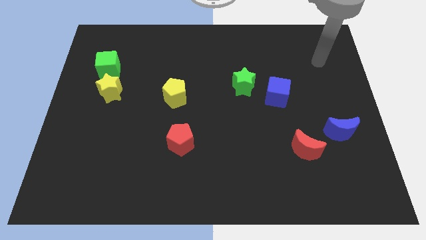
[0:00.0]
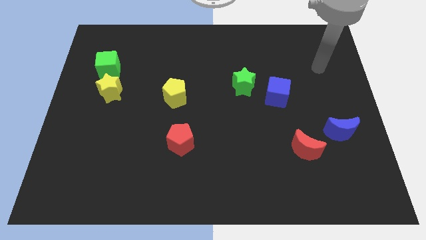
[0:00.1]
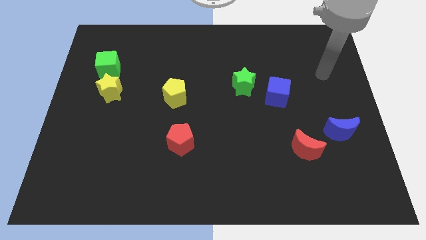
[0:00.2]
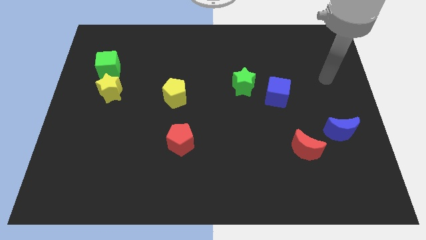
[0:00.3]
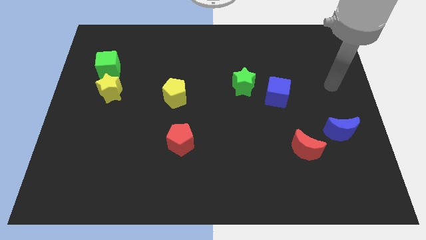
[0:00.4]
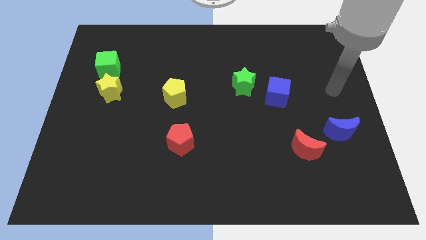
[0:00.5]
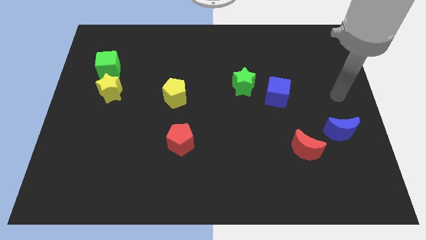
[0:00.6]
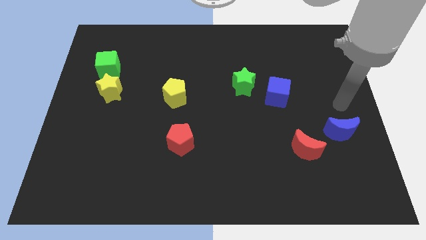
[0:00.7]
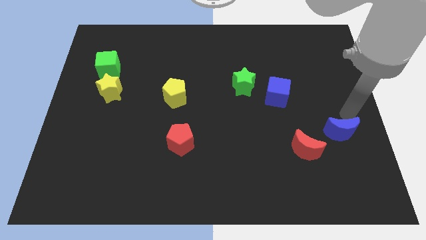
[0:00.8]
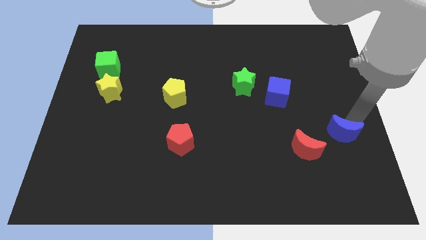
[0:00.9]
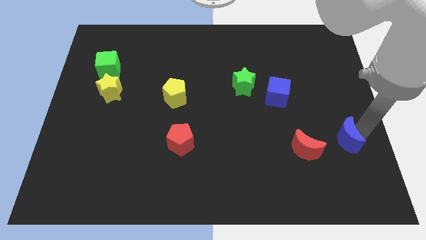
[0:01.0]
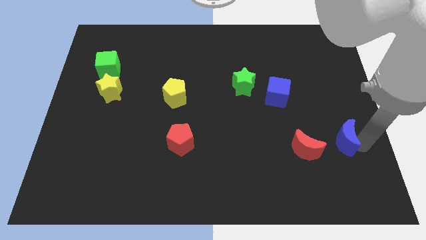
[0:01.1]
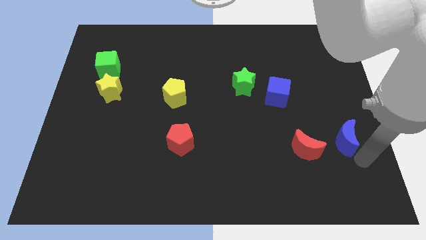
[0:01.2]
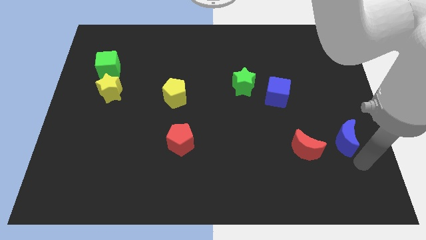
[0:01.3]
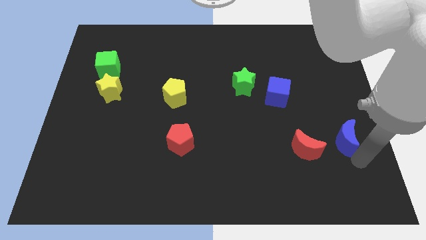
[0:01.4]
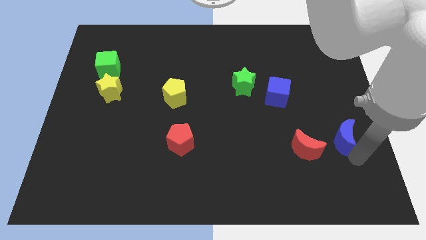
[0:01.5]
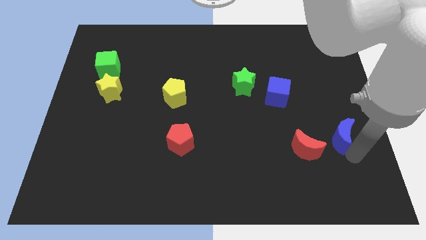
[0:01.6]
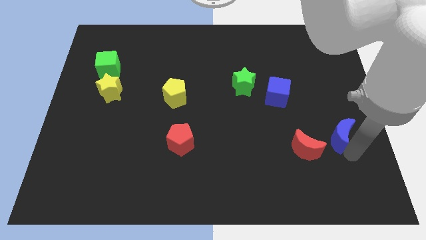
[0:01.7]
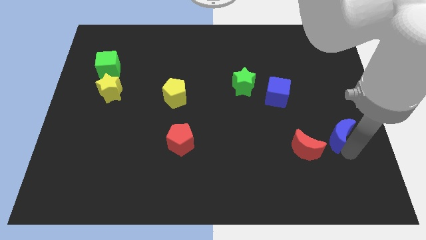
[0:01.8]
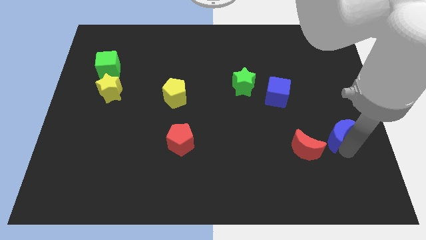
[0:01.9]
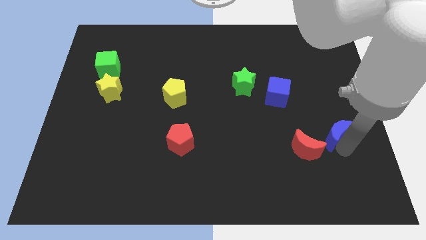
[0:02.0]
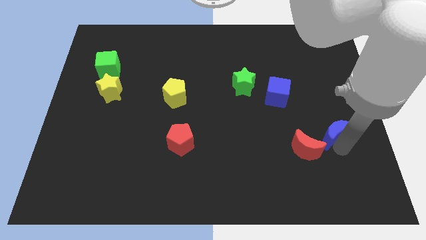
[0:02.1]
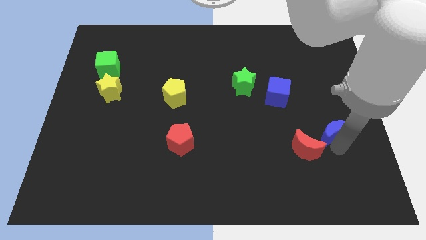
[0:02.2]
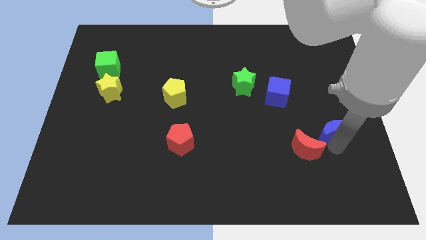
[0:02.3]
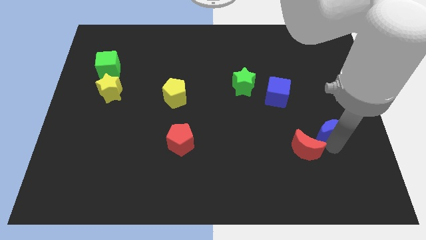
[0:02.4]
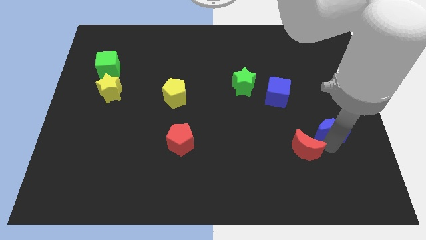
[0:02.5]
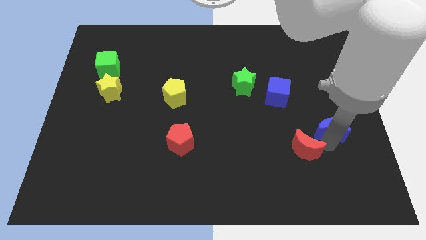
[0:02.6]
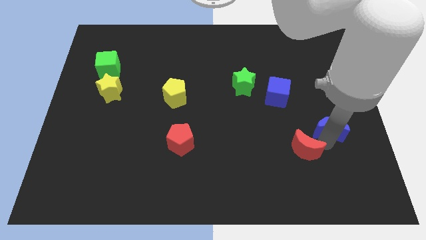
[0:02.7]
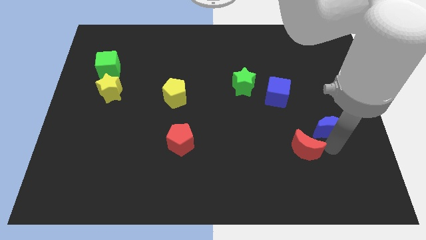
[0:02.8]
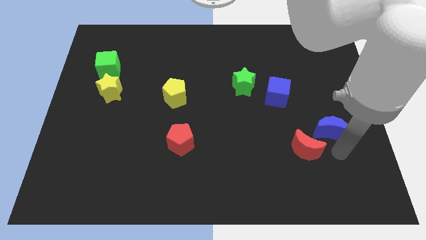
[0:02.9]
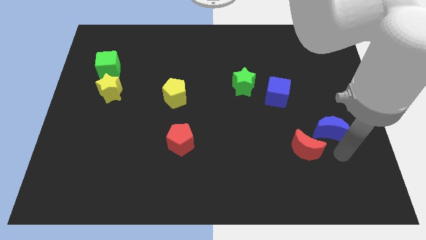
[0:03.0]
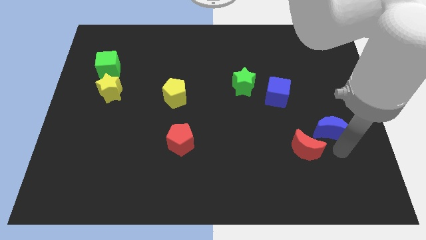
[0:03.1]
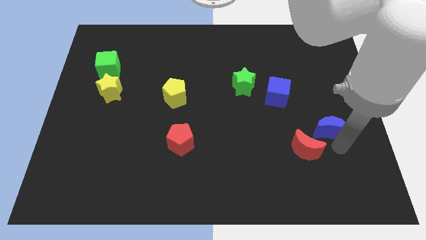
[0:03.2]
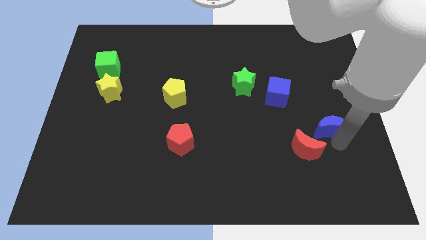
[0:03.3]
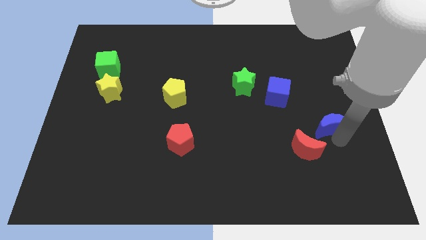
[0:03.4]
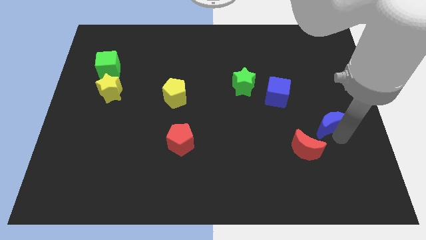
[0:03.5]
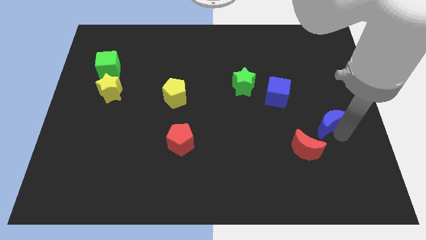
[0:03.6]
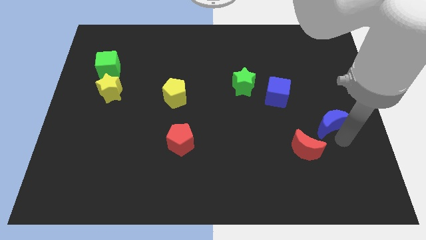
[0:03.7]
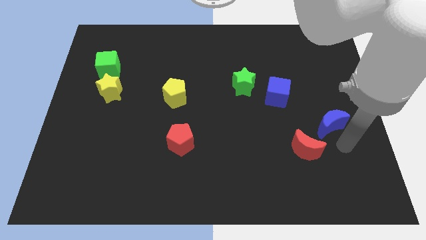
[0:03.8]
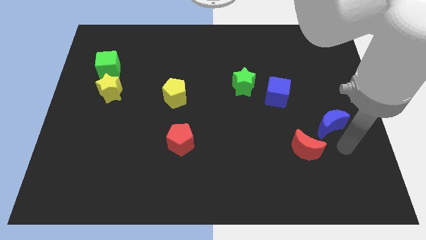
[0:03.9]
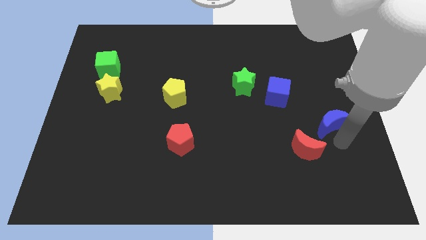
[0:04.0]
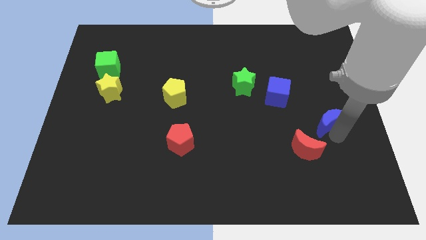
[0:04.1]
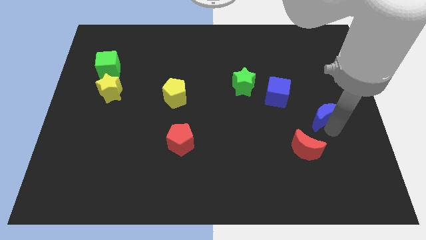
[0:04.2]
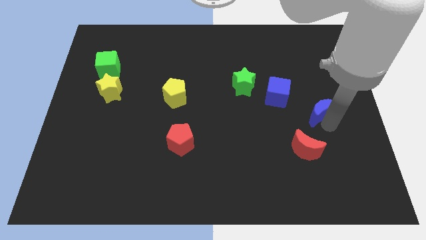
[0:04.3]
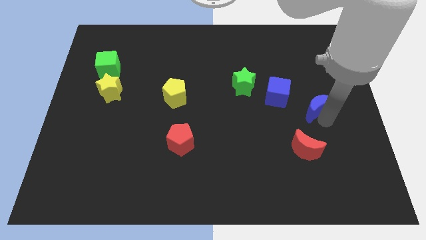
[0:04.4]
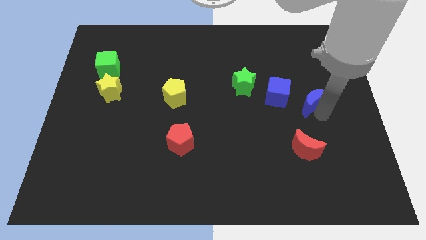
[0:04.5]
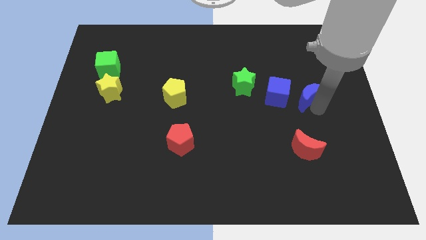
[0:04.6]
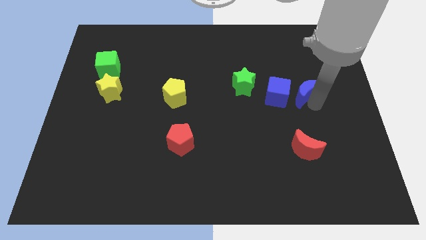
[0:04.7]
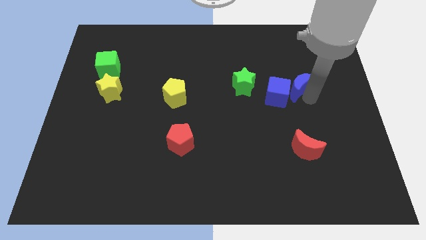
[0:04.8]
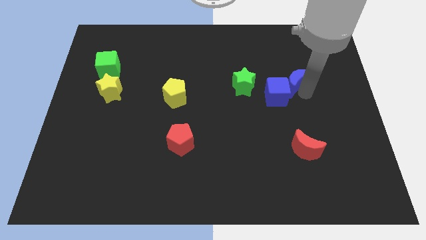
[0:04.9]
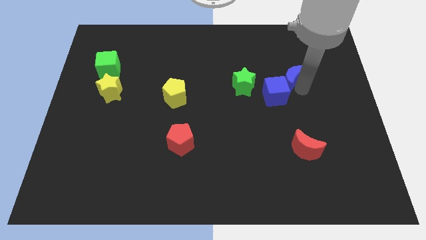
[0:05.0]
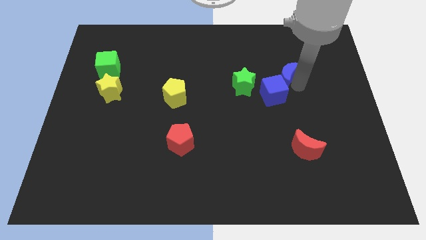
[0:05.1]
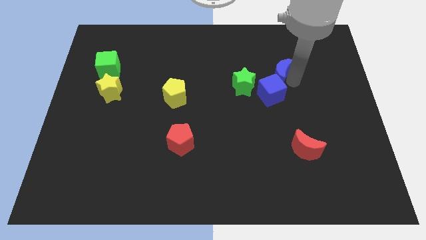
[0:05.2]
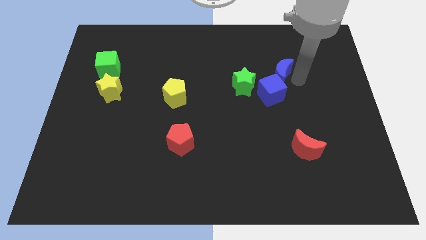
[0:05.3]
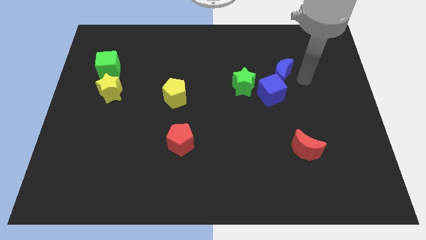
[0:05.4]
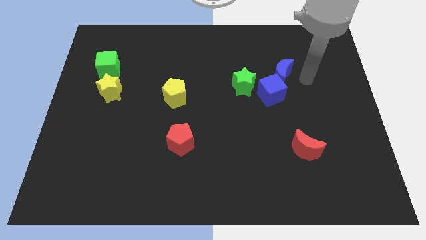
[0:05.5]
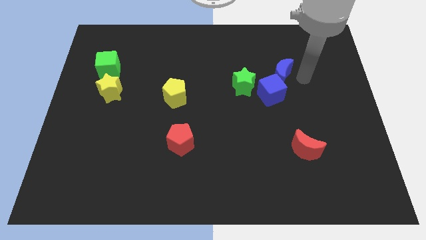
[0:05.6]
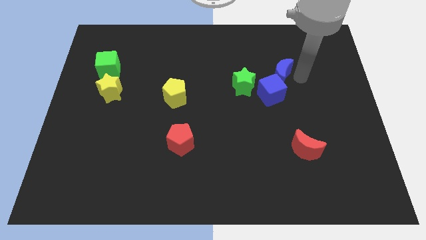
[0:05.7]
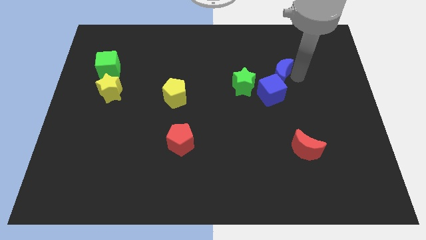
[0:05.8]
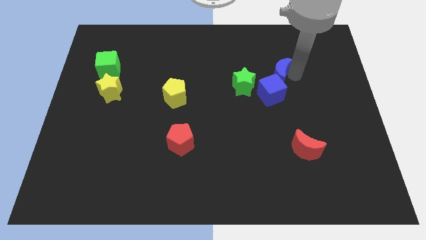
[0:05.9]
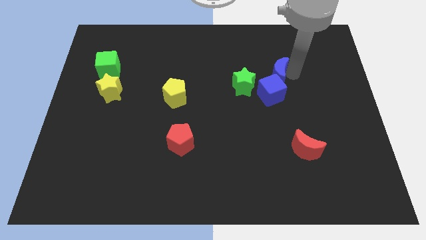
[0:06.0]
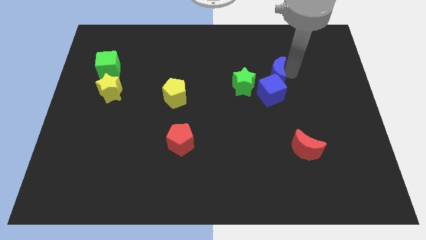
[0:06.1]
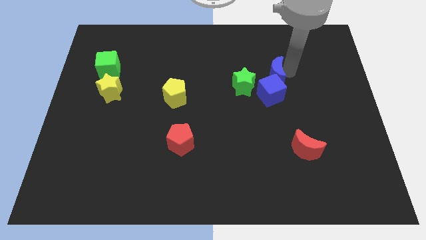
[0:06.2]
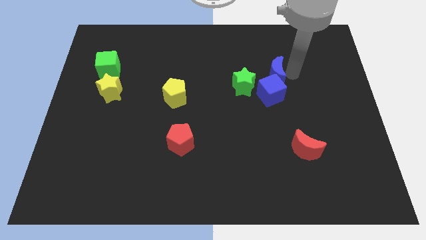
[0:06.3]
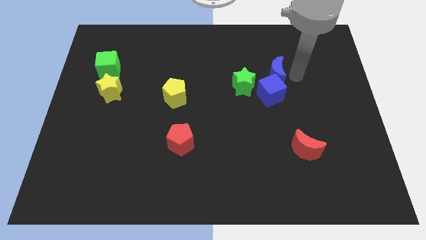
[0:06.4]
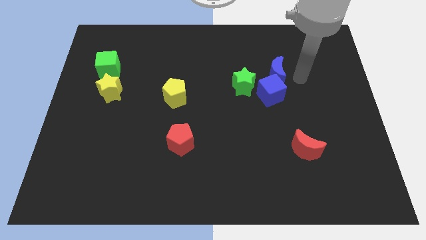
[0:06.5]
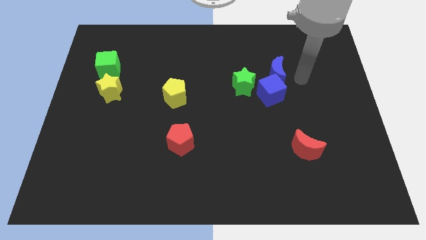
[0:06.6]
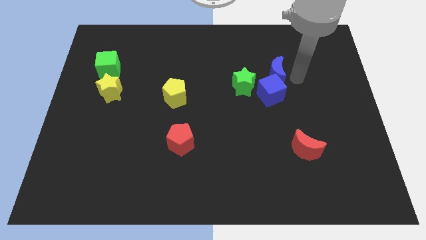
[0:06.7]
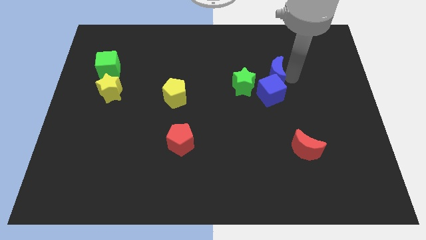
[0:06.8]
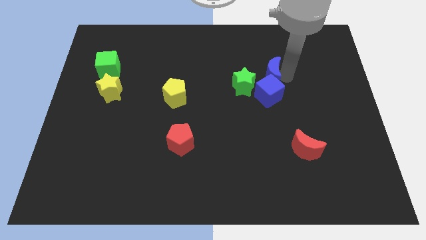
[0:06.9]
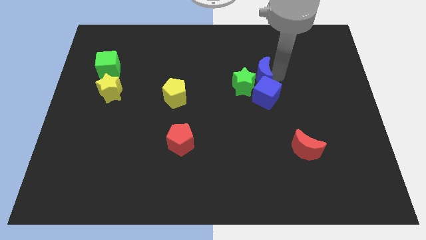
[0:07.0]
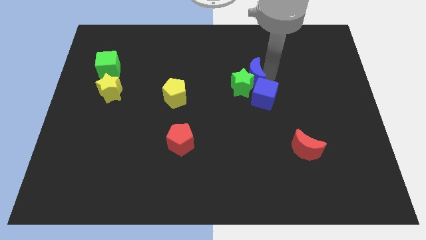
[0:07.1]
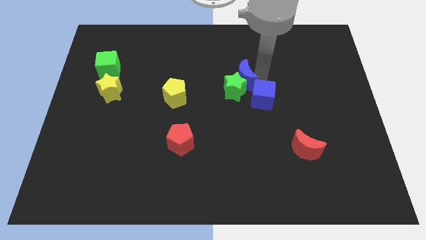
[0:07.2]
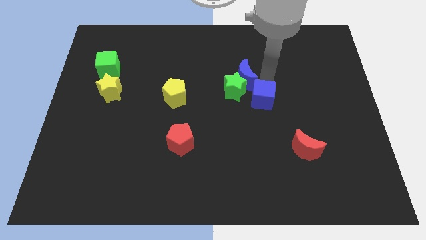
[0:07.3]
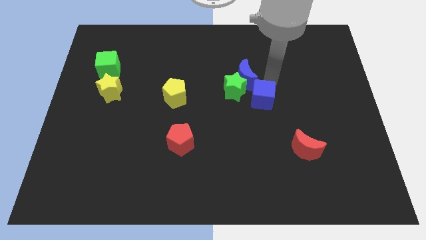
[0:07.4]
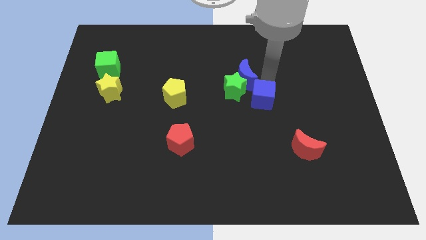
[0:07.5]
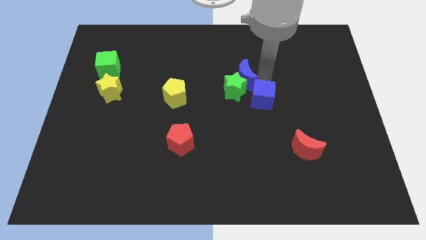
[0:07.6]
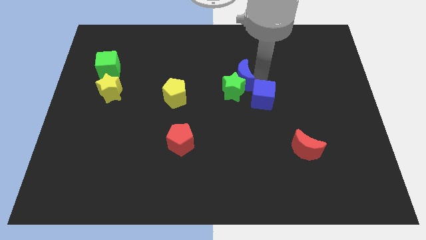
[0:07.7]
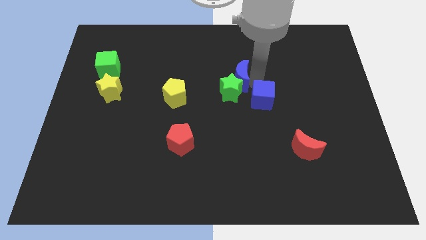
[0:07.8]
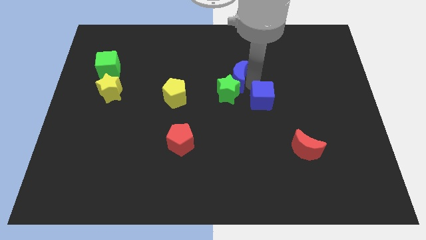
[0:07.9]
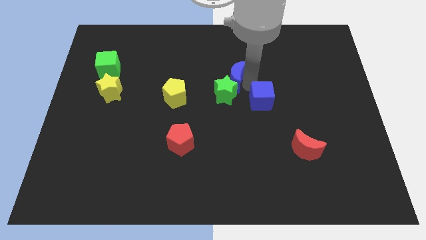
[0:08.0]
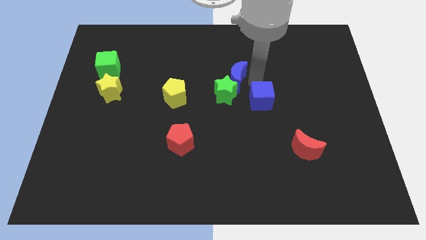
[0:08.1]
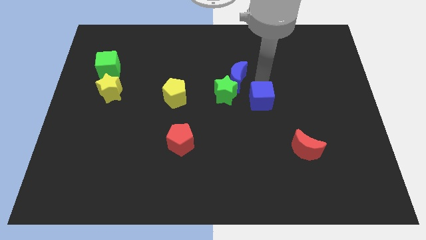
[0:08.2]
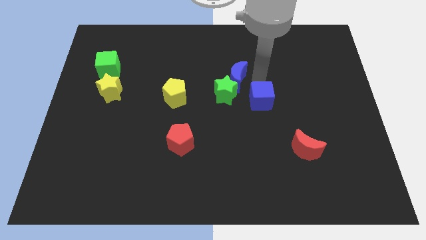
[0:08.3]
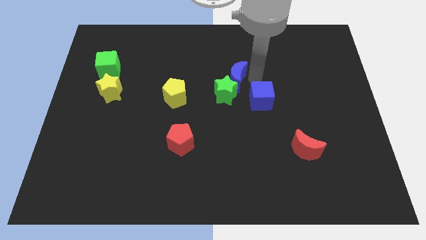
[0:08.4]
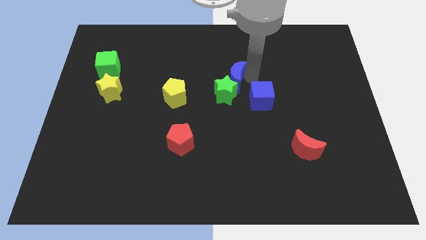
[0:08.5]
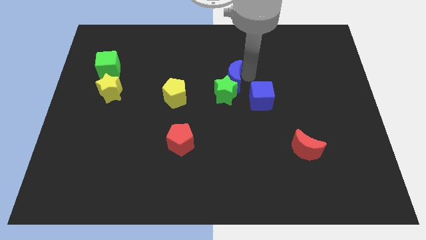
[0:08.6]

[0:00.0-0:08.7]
move the blue moon to the top left side of the green star
